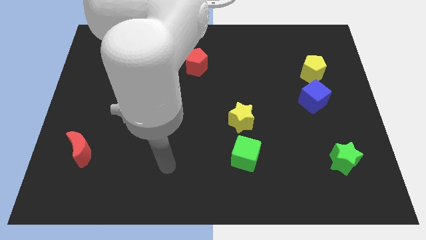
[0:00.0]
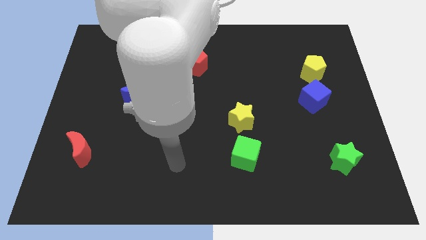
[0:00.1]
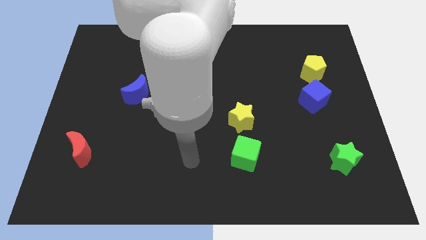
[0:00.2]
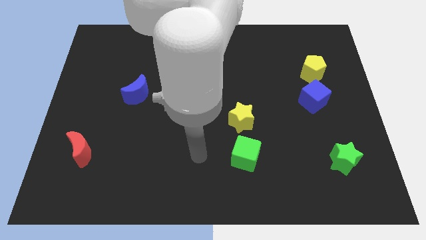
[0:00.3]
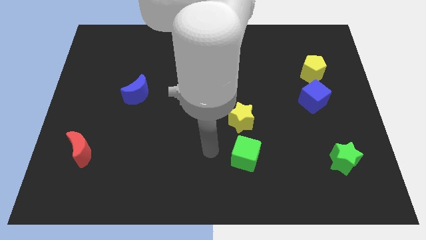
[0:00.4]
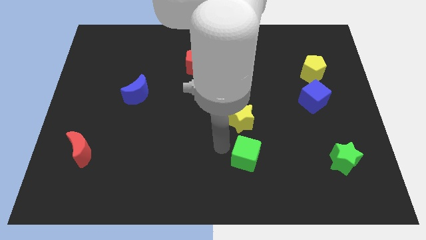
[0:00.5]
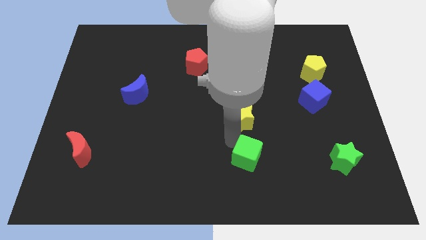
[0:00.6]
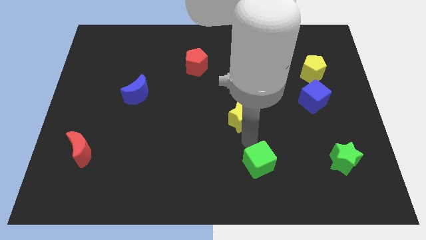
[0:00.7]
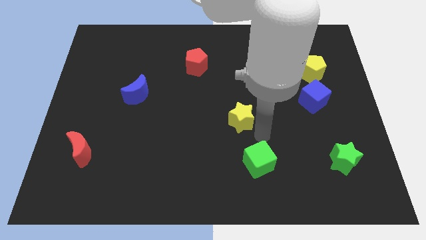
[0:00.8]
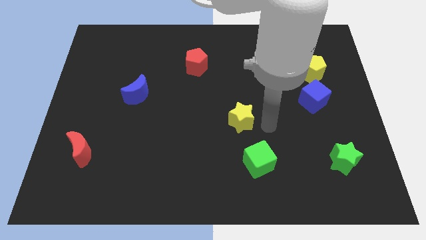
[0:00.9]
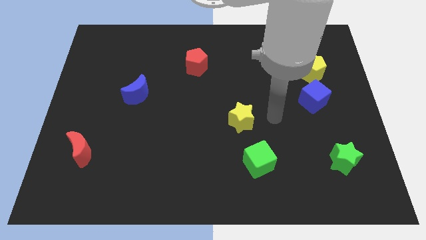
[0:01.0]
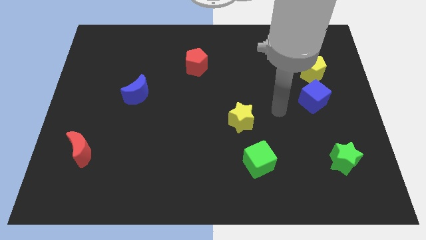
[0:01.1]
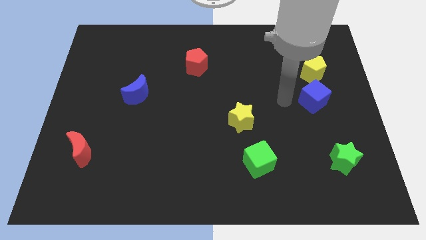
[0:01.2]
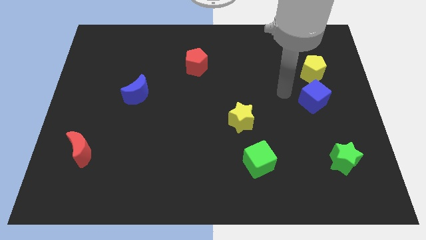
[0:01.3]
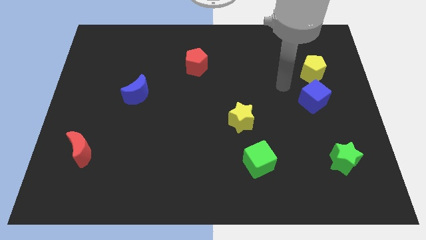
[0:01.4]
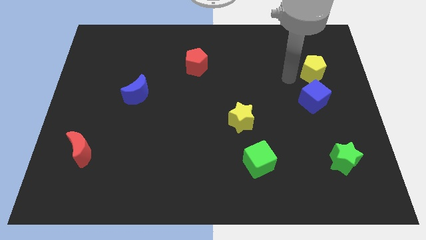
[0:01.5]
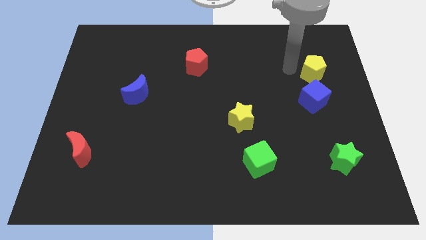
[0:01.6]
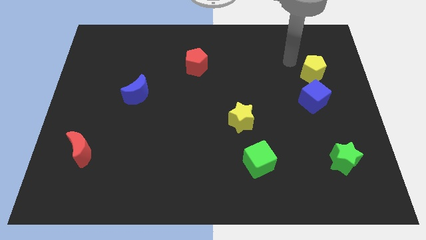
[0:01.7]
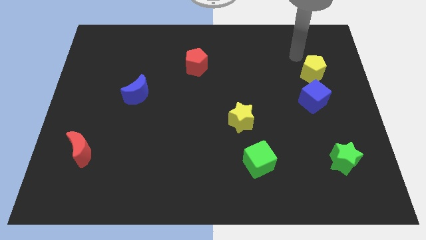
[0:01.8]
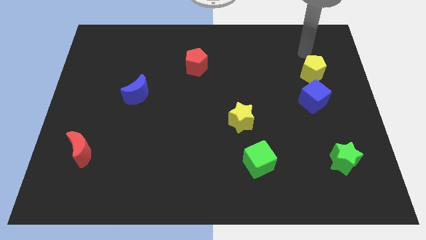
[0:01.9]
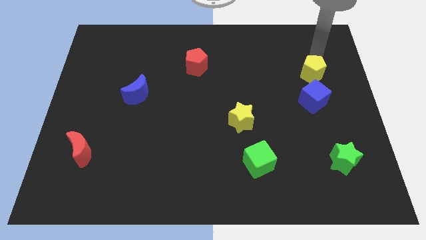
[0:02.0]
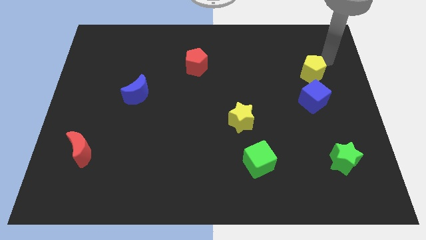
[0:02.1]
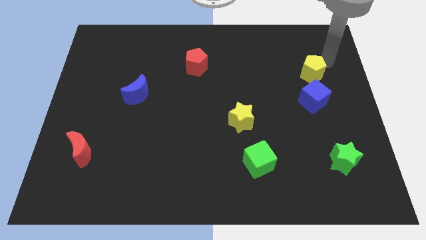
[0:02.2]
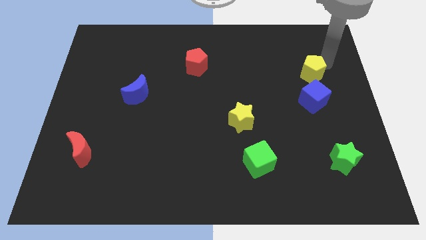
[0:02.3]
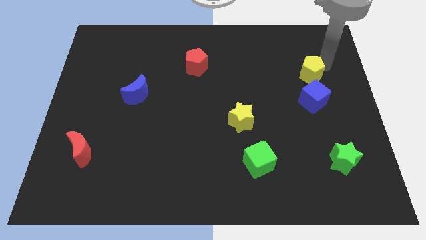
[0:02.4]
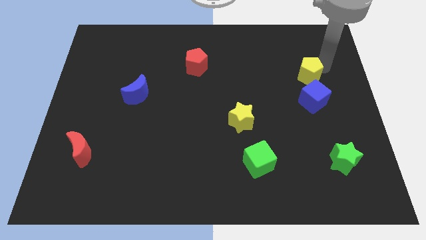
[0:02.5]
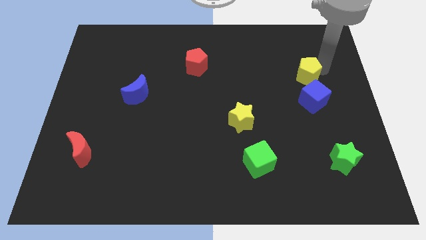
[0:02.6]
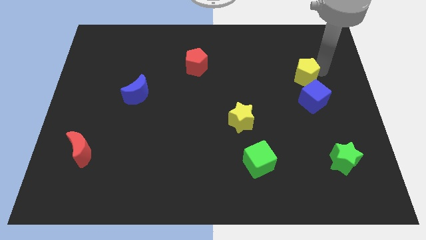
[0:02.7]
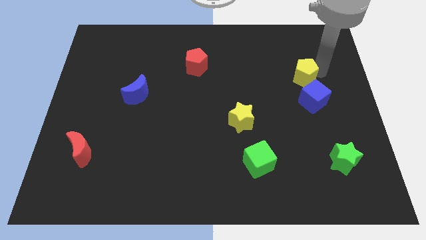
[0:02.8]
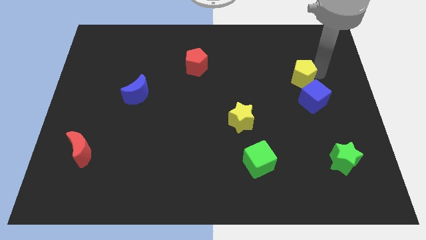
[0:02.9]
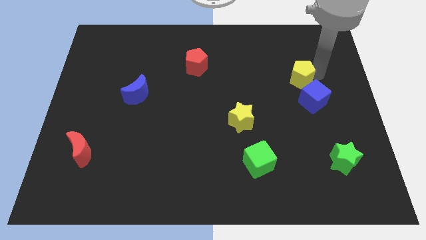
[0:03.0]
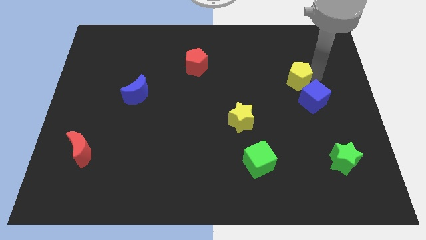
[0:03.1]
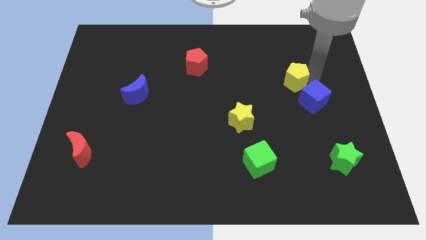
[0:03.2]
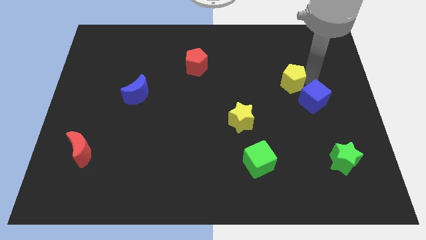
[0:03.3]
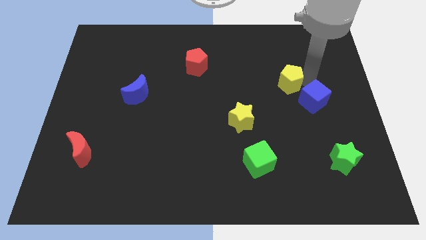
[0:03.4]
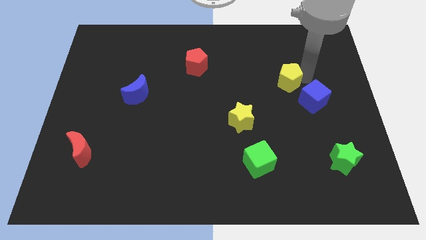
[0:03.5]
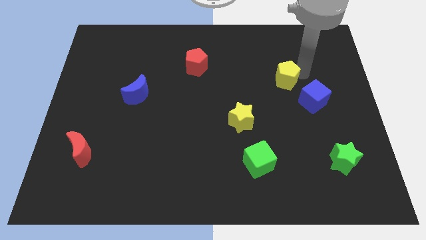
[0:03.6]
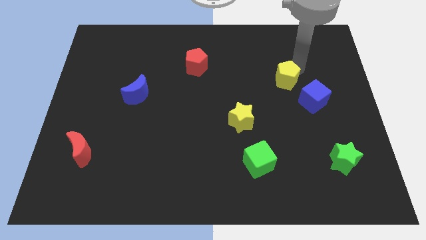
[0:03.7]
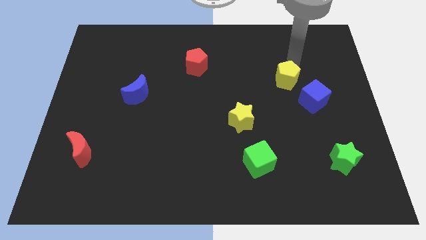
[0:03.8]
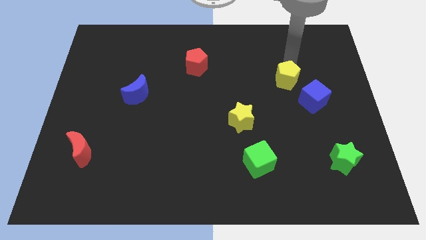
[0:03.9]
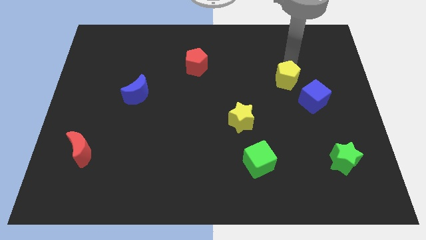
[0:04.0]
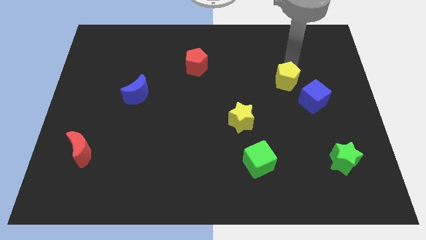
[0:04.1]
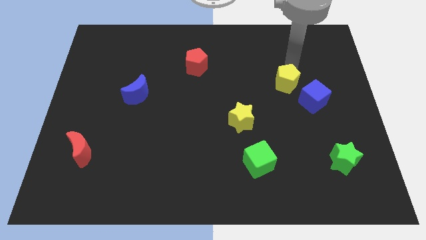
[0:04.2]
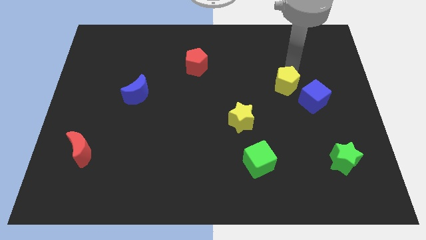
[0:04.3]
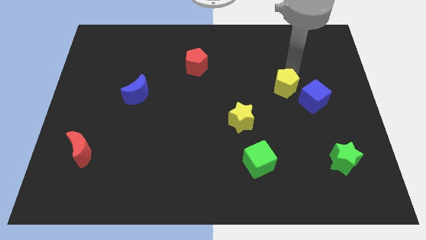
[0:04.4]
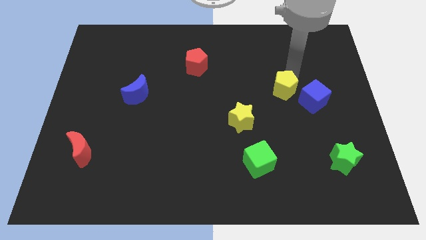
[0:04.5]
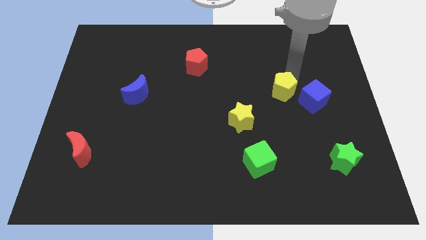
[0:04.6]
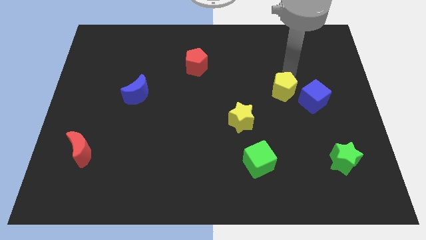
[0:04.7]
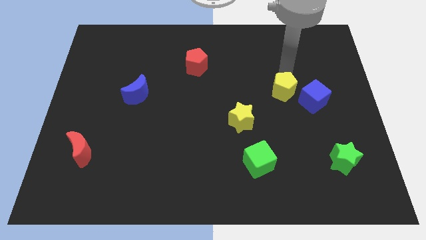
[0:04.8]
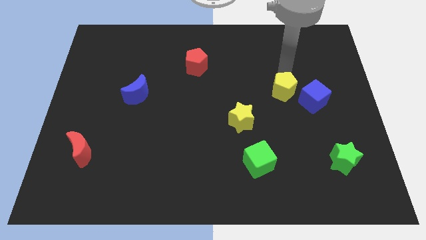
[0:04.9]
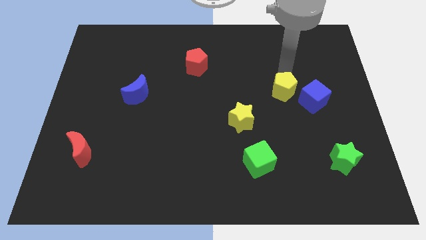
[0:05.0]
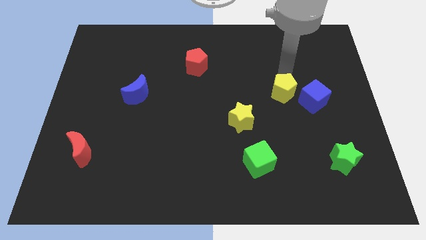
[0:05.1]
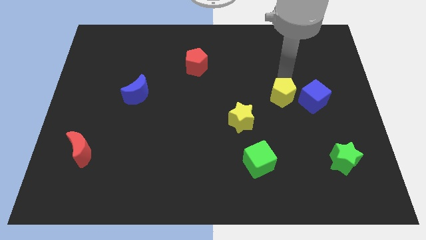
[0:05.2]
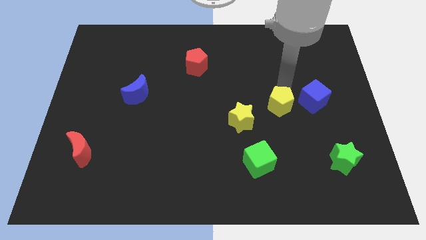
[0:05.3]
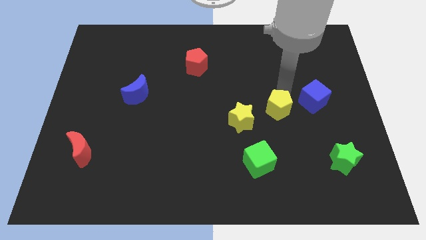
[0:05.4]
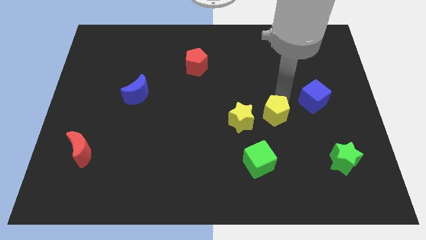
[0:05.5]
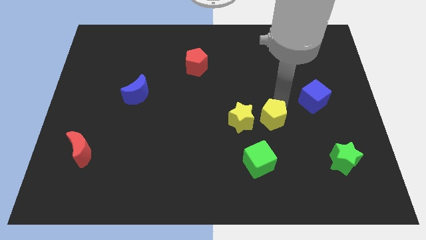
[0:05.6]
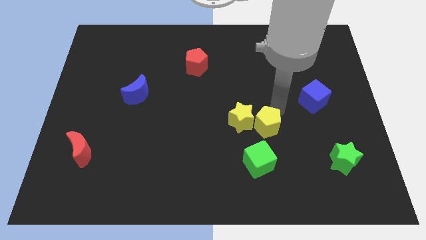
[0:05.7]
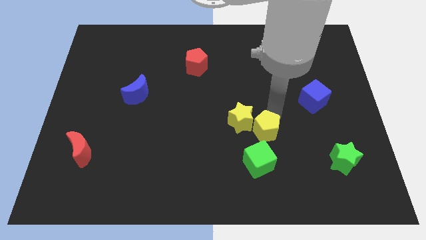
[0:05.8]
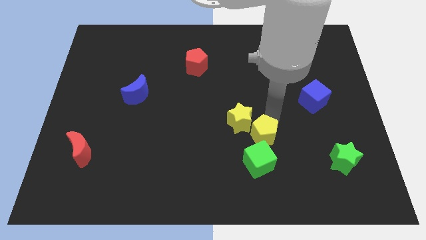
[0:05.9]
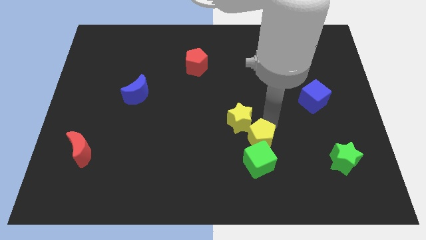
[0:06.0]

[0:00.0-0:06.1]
push the yellow pentagon towards the green cube
